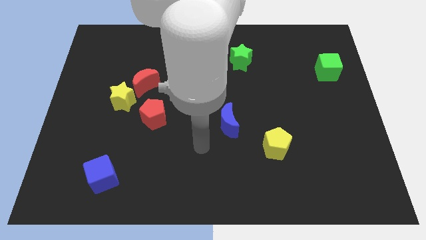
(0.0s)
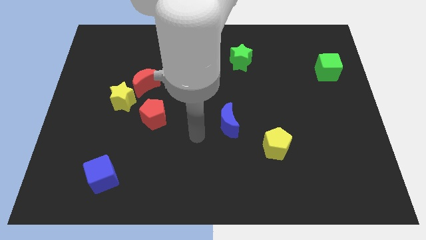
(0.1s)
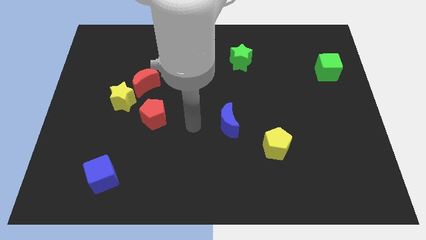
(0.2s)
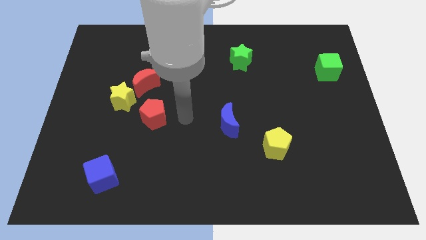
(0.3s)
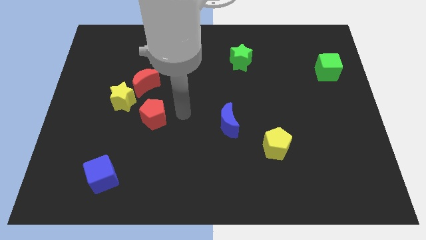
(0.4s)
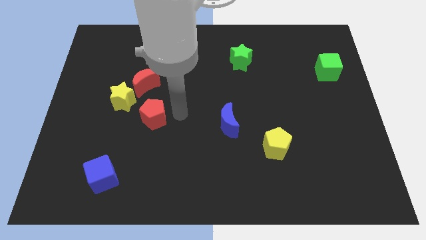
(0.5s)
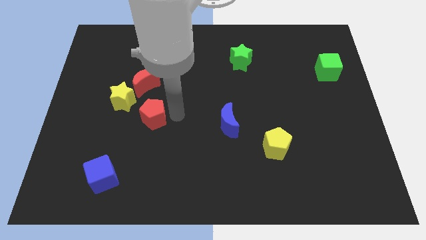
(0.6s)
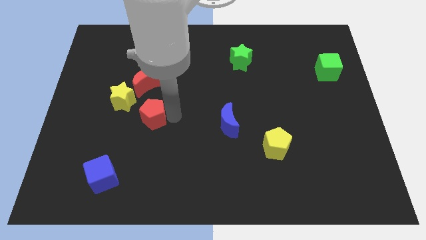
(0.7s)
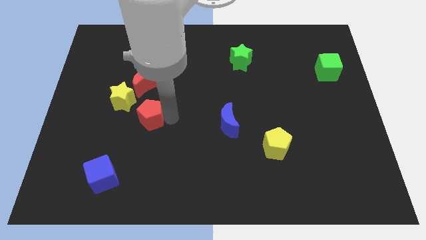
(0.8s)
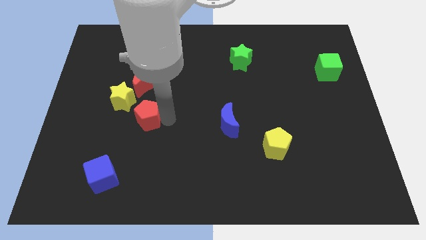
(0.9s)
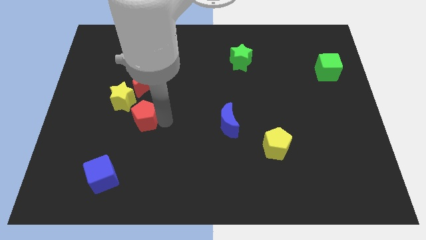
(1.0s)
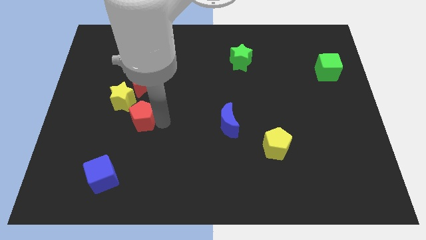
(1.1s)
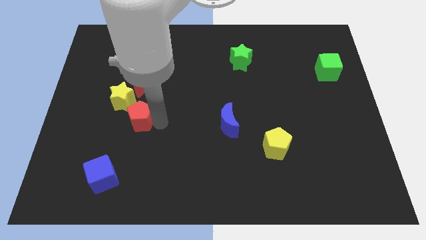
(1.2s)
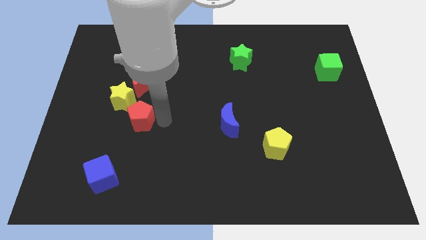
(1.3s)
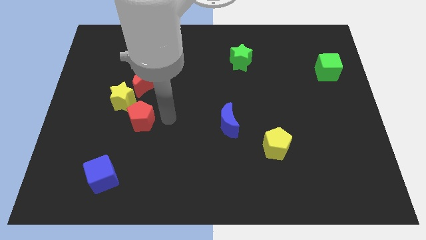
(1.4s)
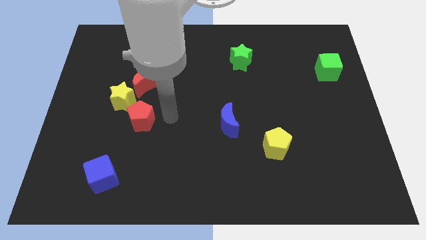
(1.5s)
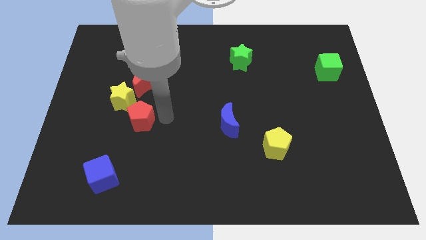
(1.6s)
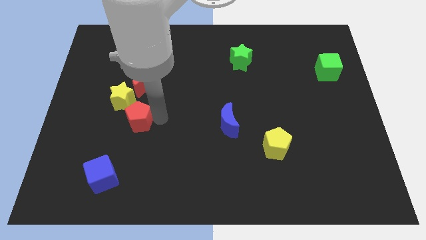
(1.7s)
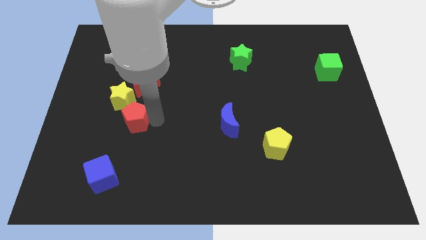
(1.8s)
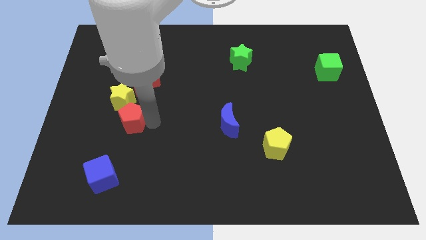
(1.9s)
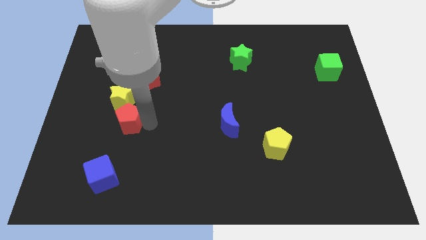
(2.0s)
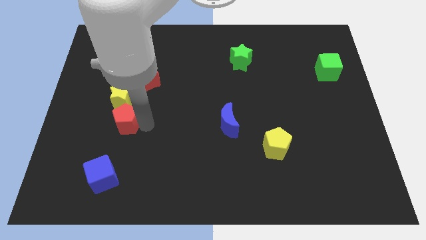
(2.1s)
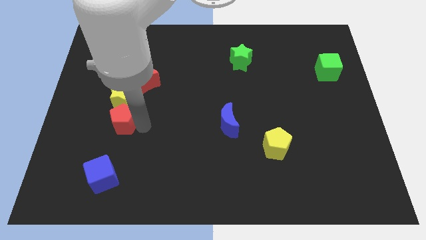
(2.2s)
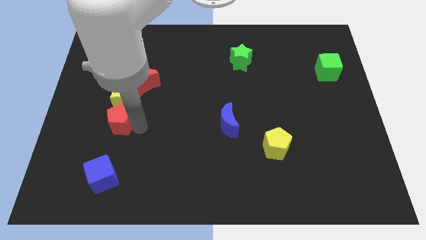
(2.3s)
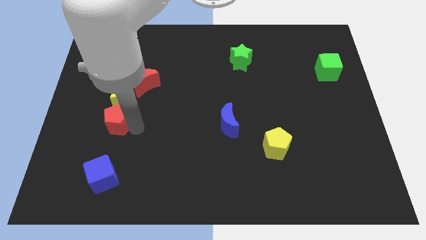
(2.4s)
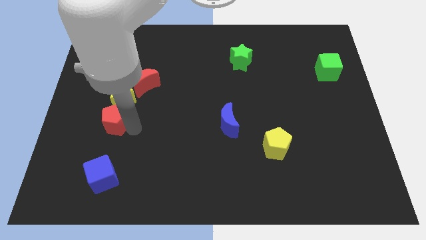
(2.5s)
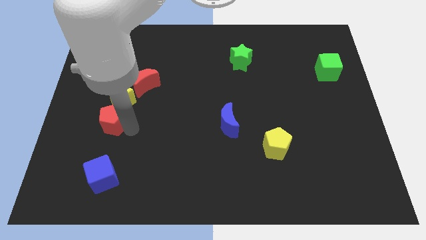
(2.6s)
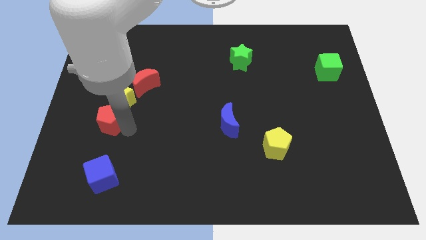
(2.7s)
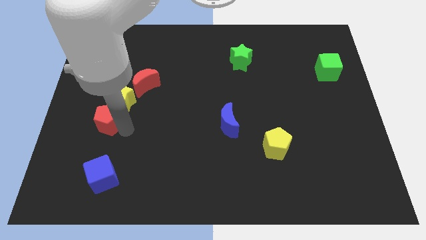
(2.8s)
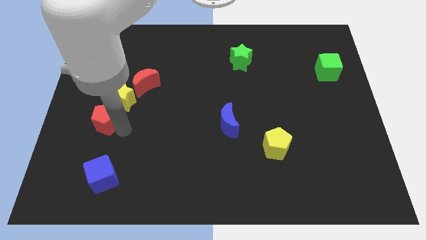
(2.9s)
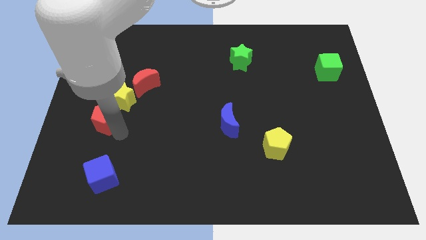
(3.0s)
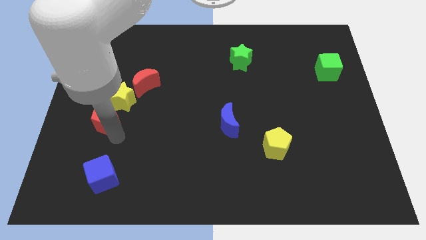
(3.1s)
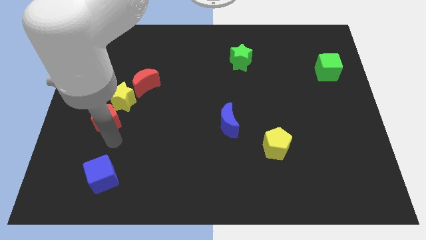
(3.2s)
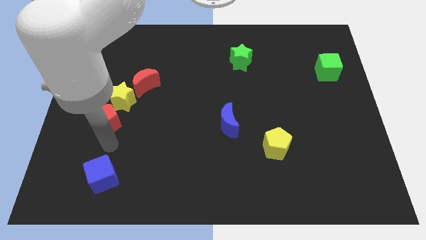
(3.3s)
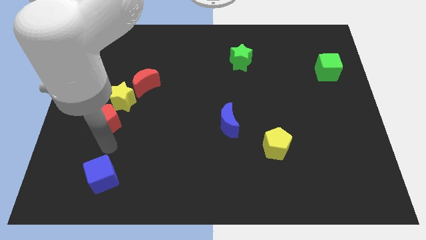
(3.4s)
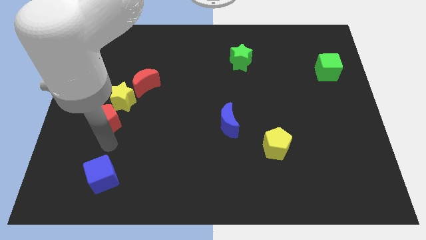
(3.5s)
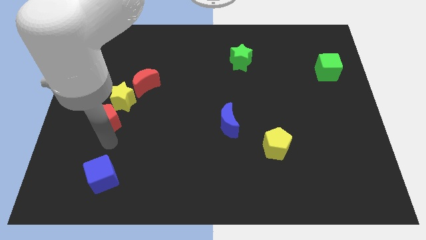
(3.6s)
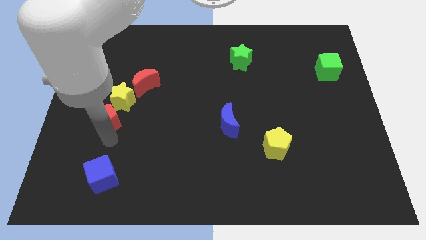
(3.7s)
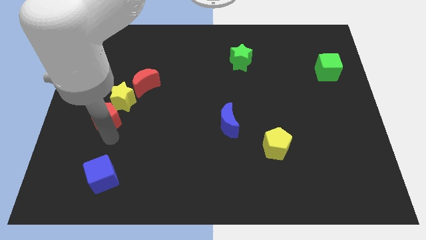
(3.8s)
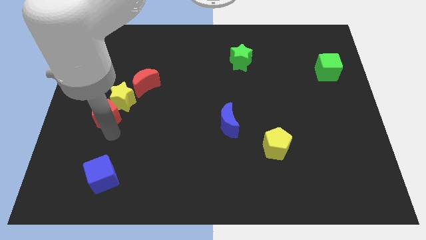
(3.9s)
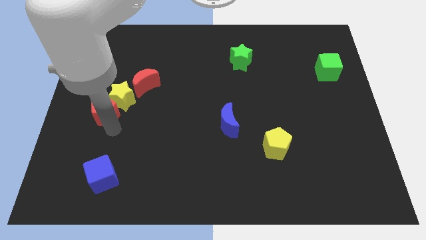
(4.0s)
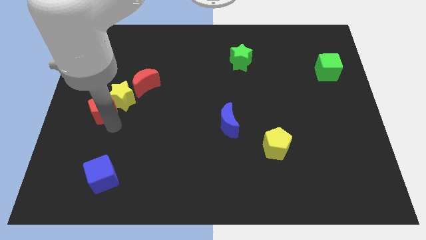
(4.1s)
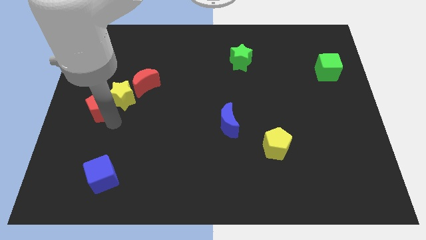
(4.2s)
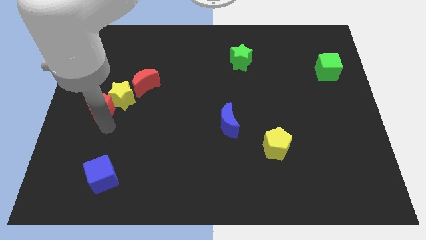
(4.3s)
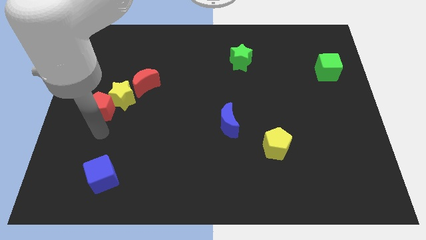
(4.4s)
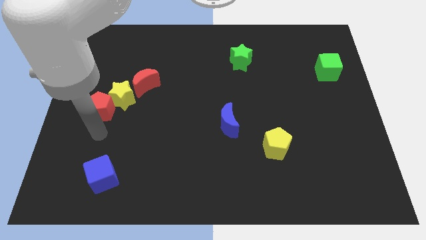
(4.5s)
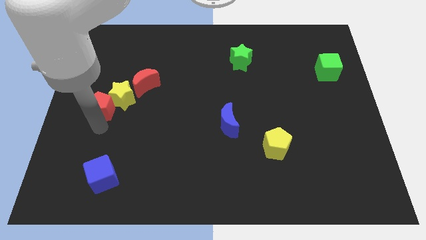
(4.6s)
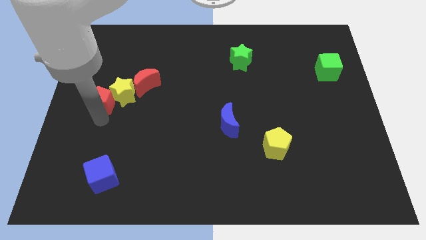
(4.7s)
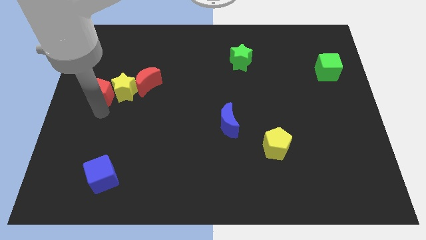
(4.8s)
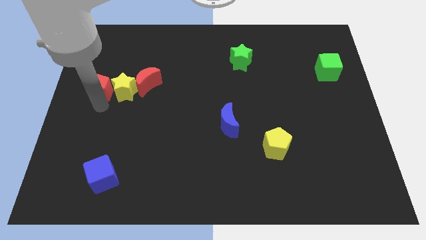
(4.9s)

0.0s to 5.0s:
push the red pentagon diagonally up and to the left of the yellow star

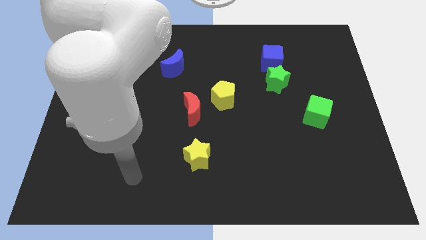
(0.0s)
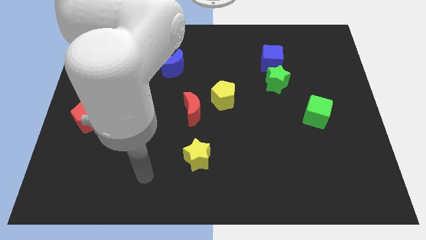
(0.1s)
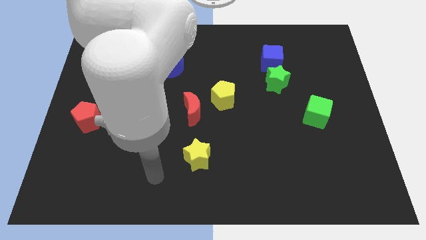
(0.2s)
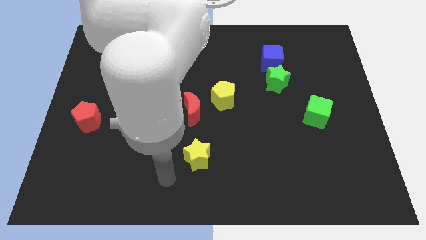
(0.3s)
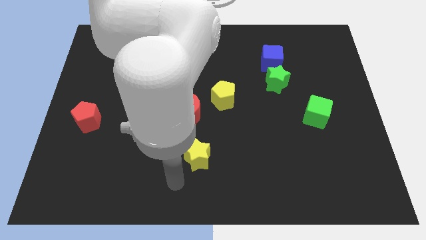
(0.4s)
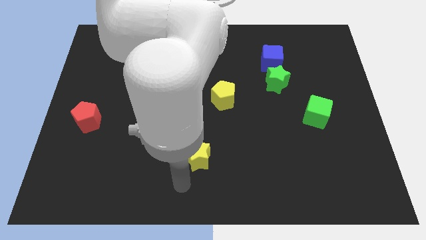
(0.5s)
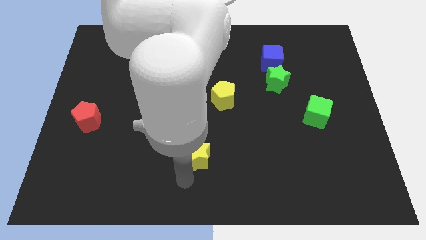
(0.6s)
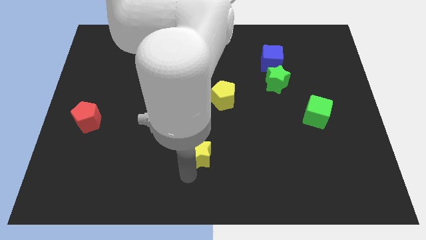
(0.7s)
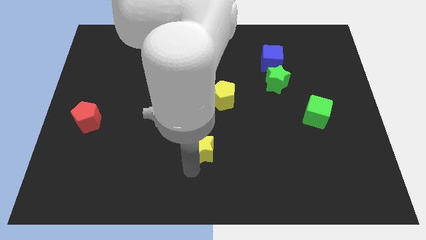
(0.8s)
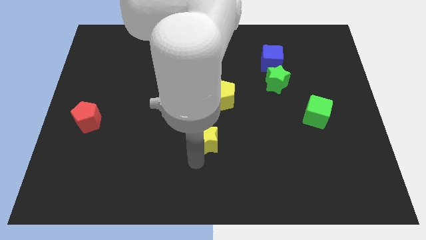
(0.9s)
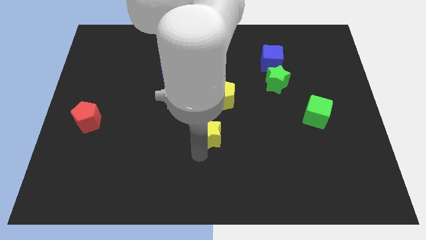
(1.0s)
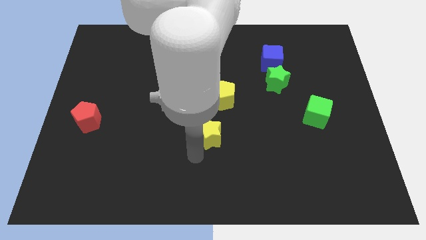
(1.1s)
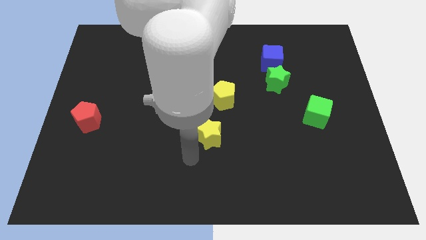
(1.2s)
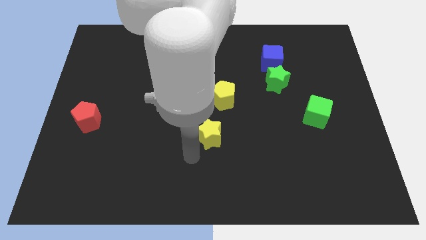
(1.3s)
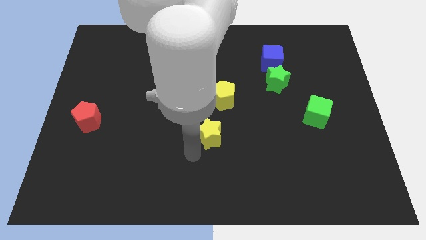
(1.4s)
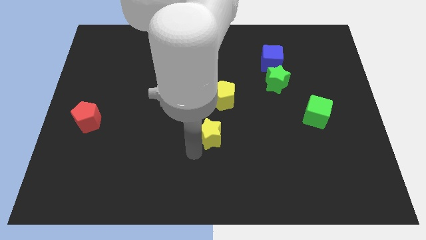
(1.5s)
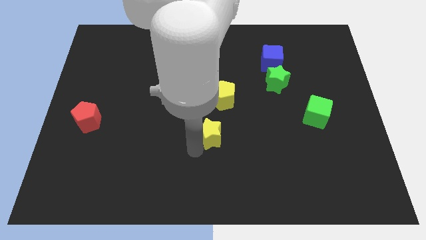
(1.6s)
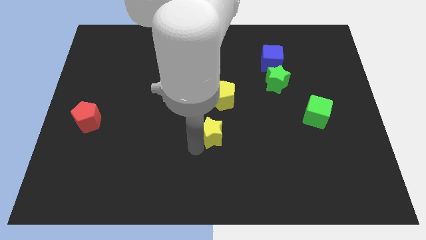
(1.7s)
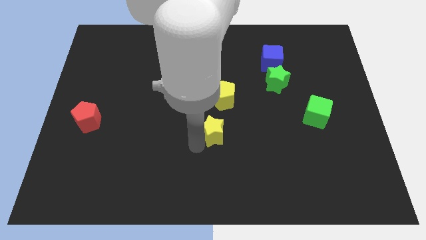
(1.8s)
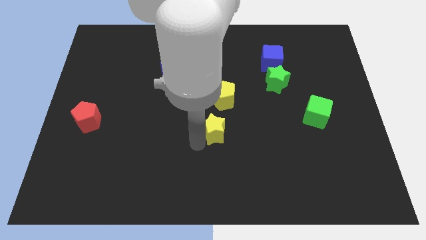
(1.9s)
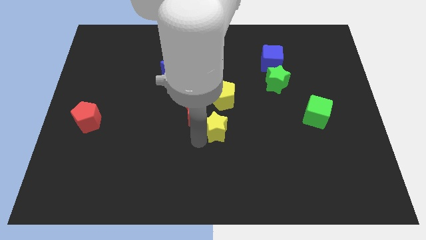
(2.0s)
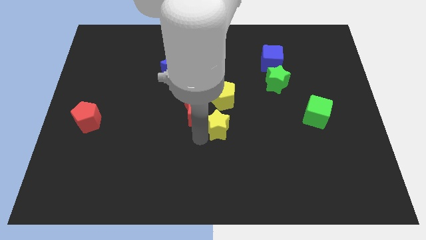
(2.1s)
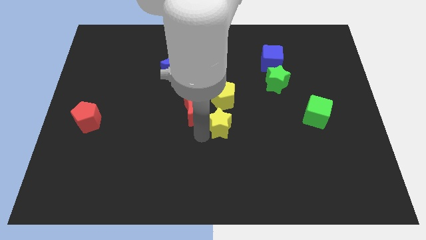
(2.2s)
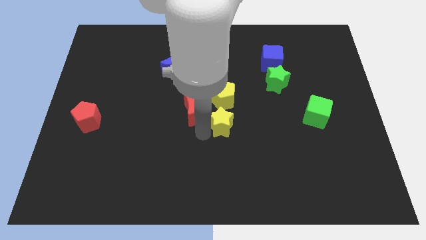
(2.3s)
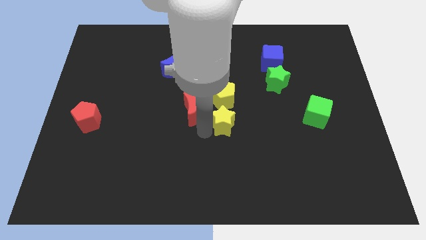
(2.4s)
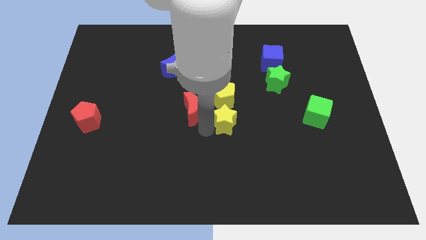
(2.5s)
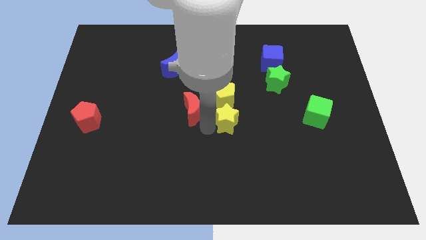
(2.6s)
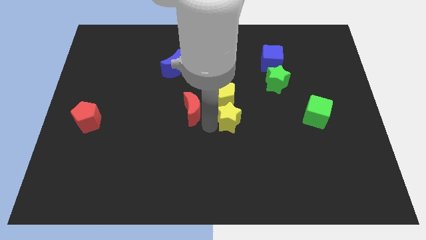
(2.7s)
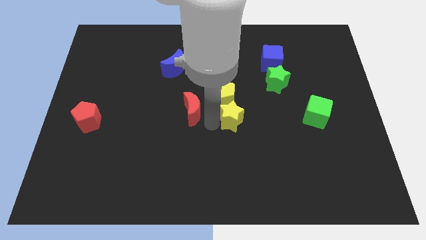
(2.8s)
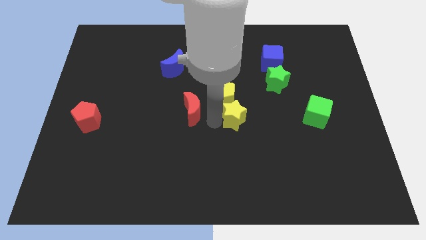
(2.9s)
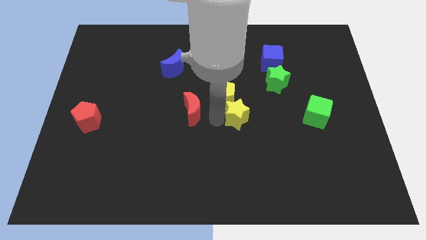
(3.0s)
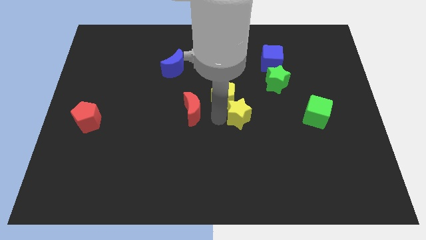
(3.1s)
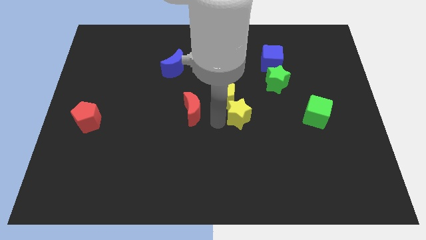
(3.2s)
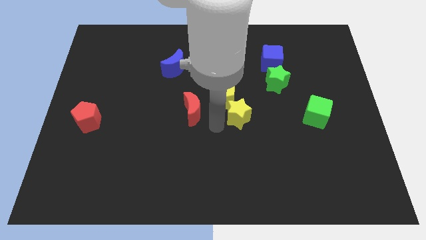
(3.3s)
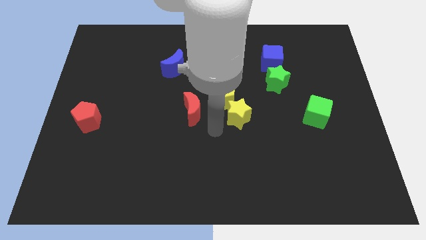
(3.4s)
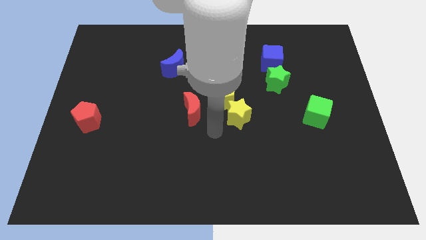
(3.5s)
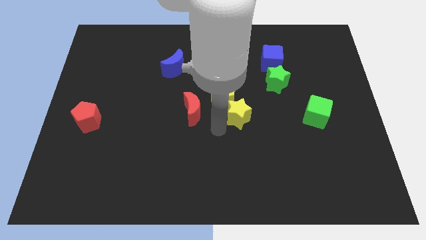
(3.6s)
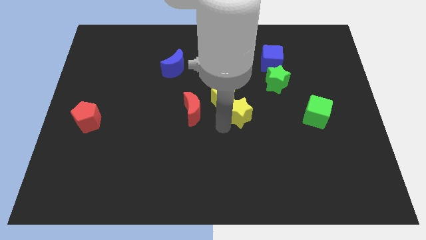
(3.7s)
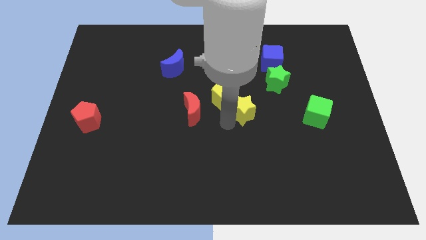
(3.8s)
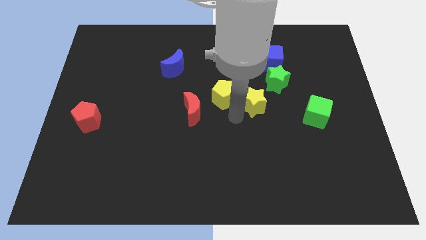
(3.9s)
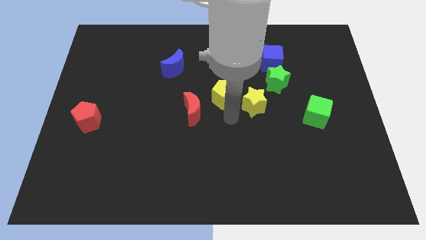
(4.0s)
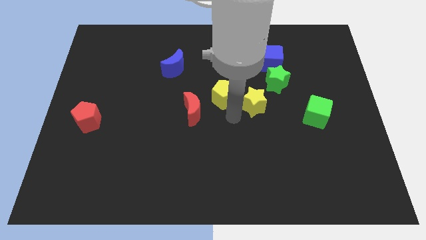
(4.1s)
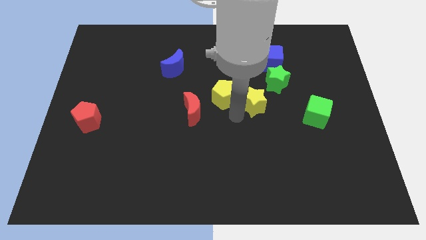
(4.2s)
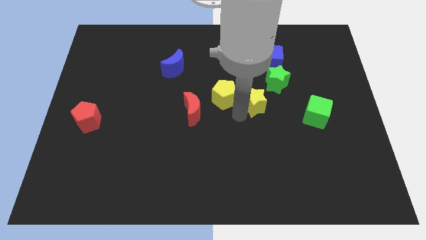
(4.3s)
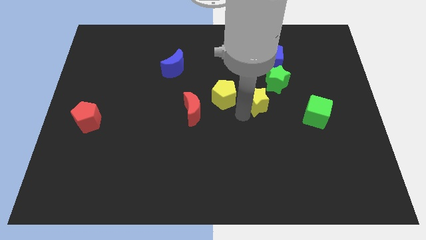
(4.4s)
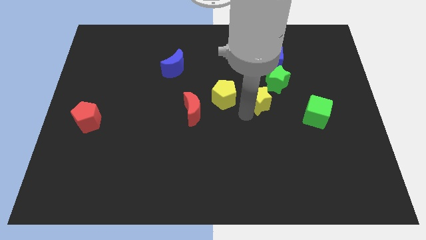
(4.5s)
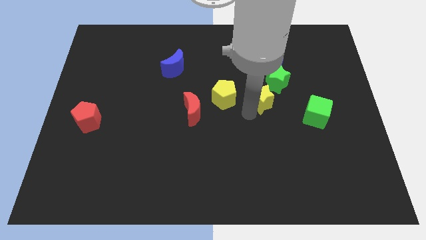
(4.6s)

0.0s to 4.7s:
put the yellow star to the bottom side of the blue cube
